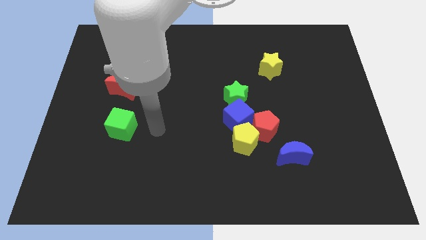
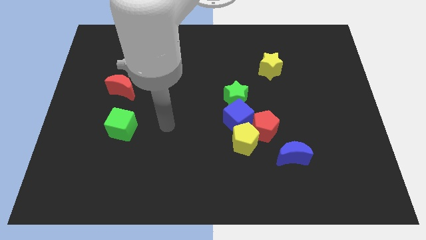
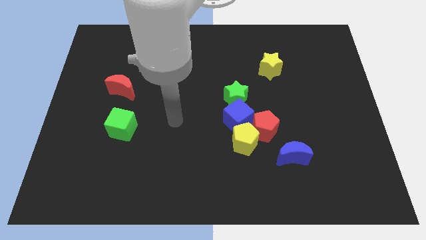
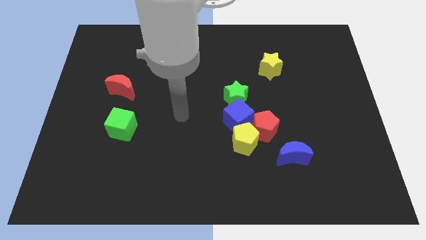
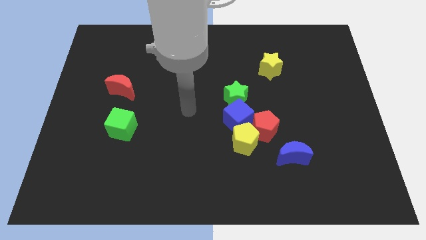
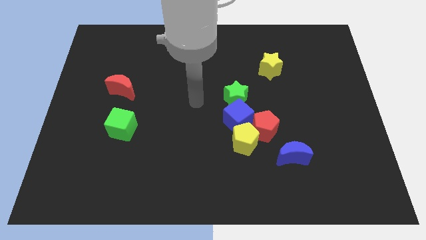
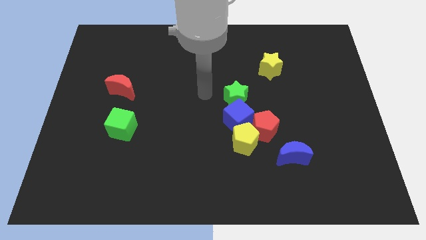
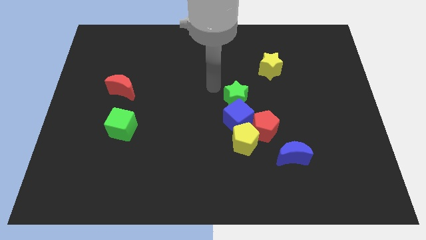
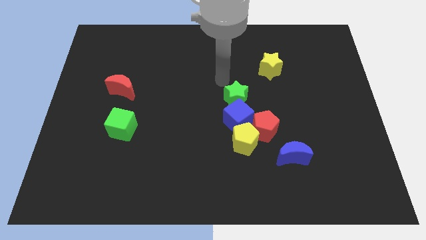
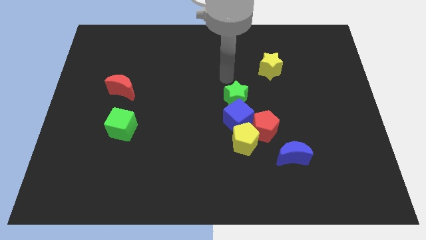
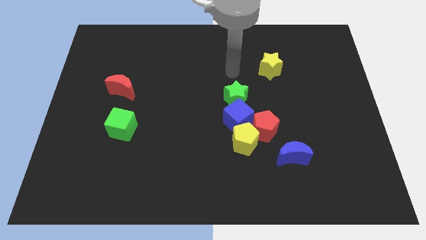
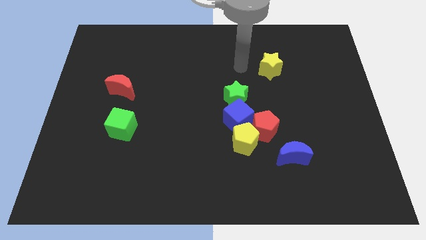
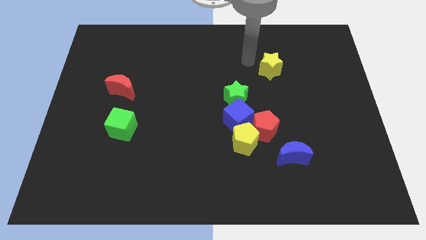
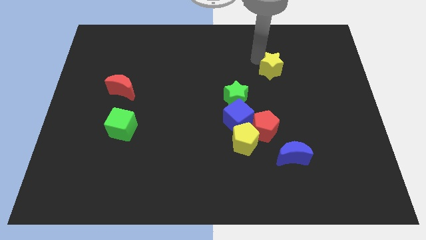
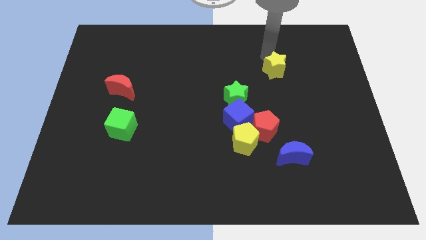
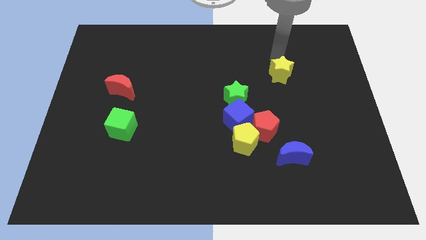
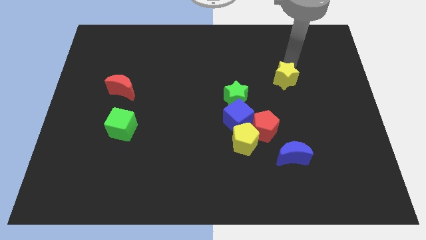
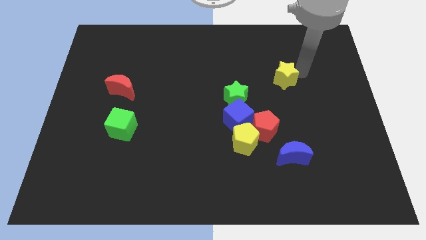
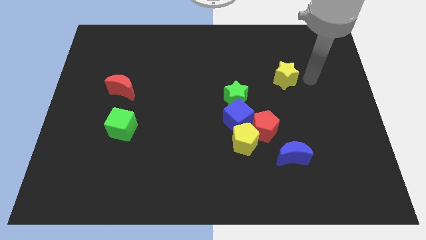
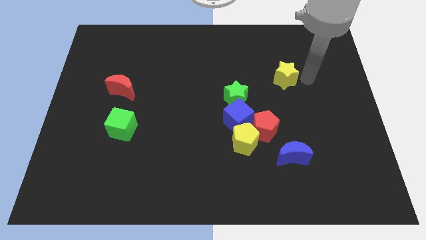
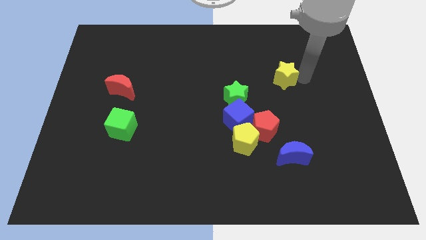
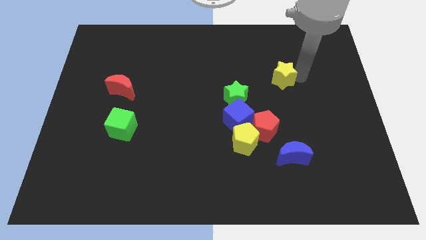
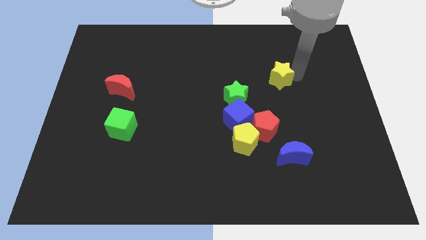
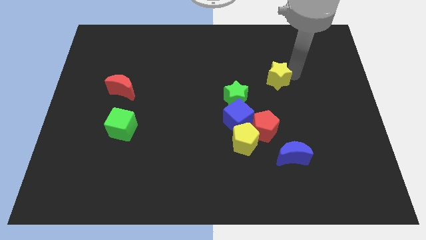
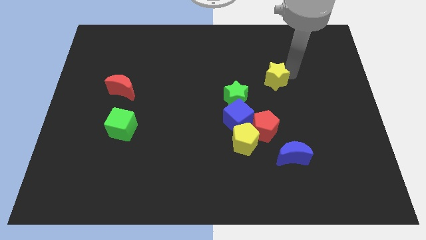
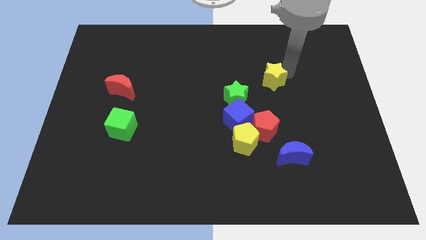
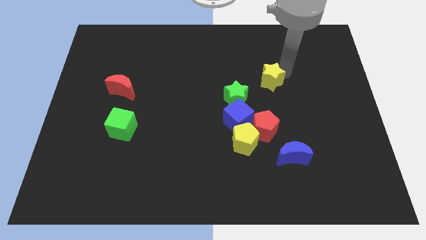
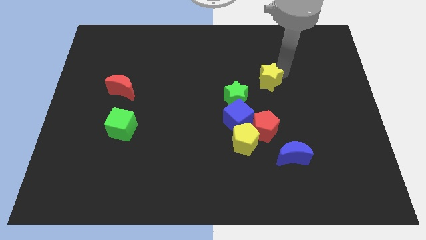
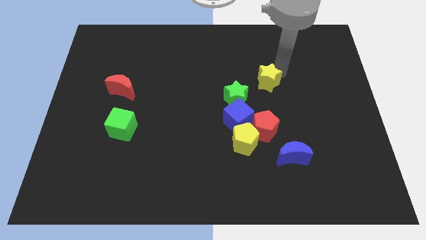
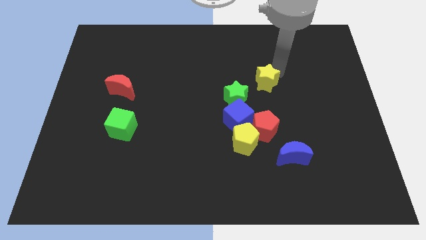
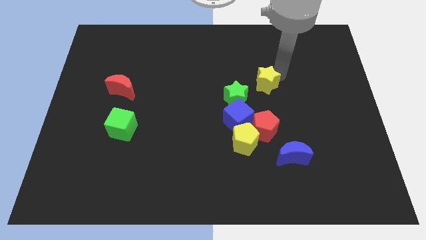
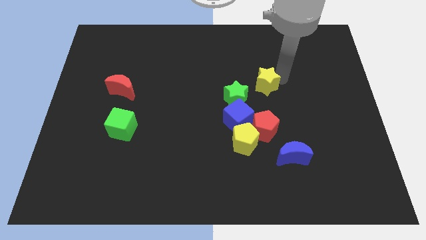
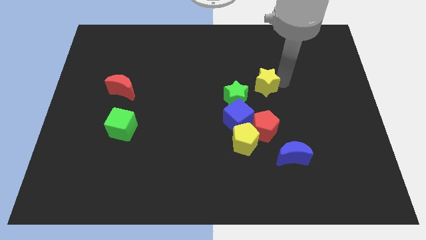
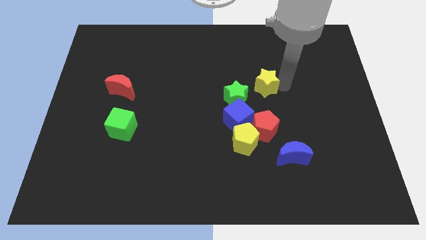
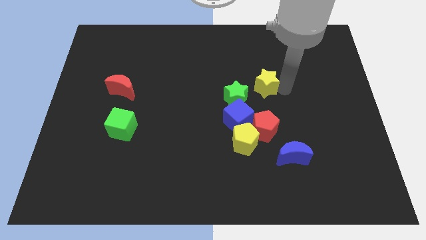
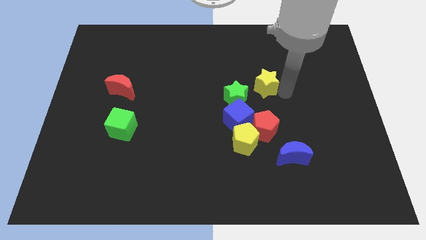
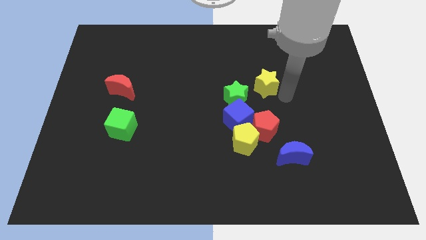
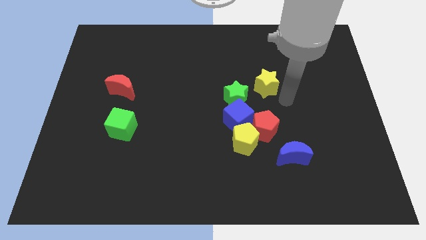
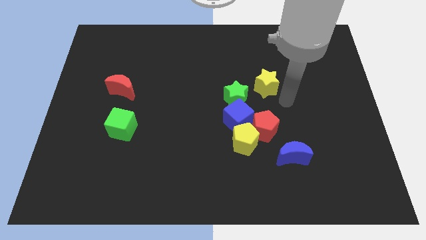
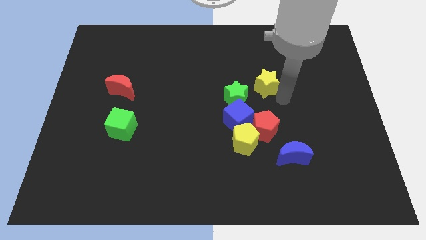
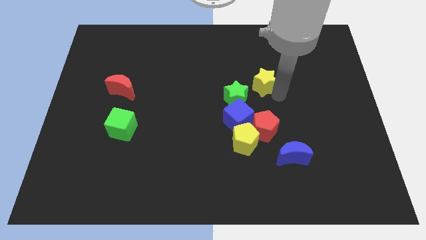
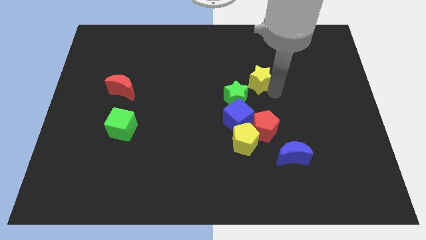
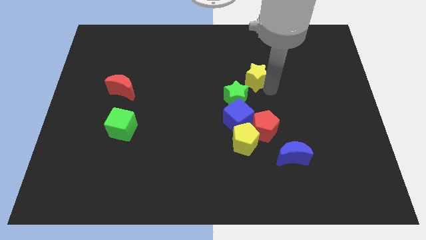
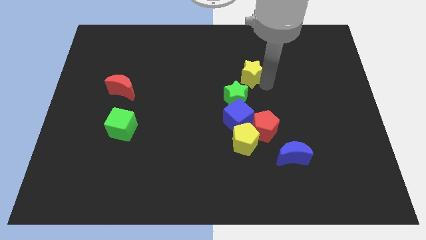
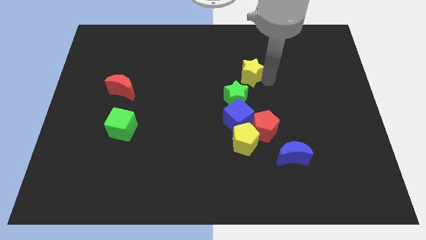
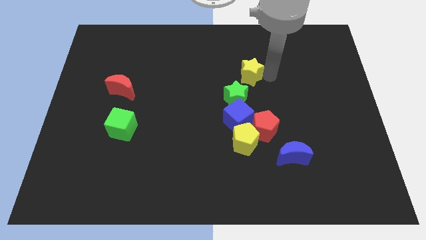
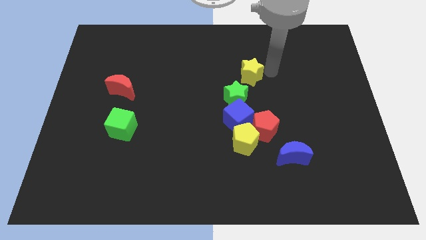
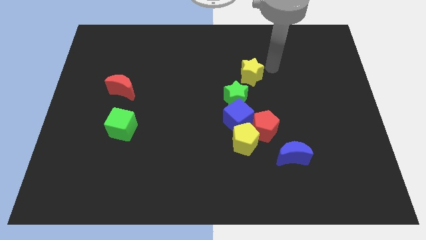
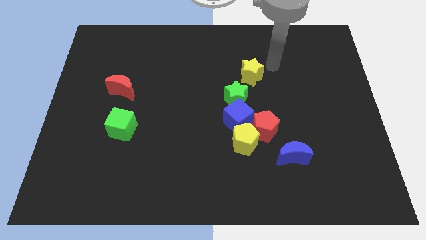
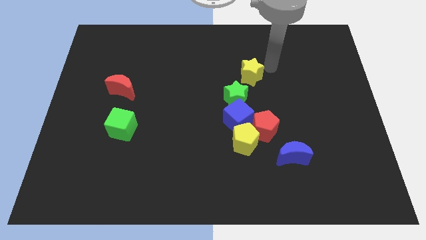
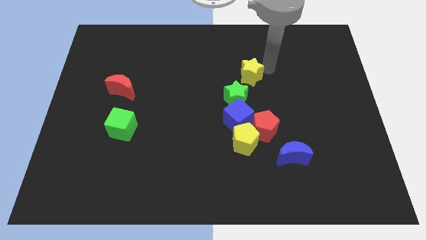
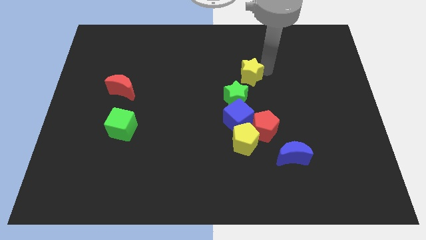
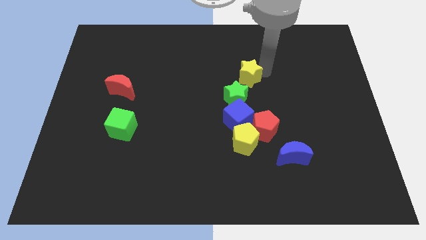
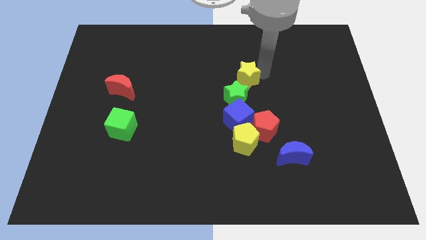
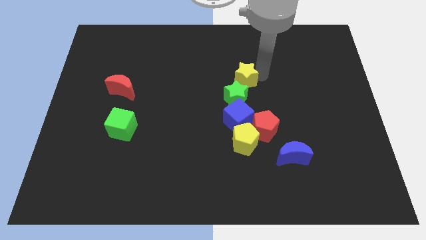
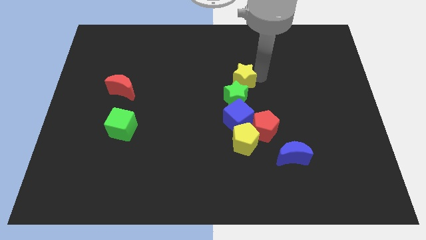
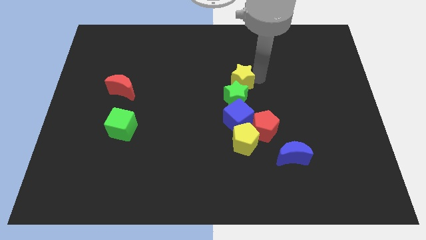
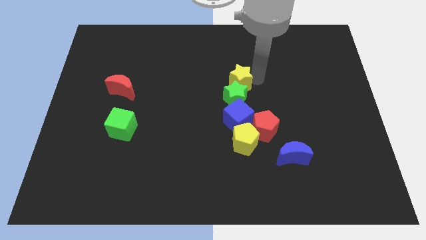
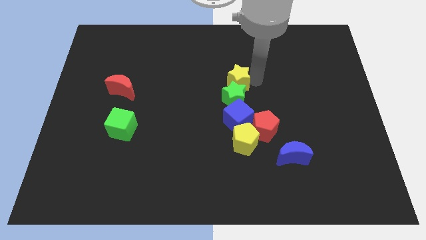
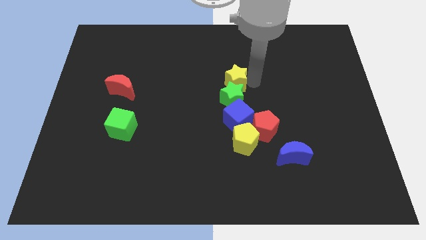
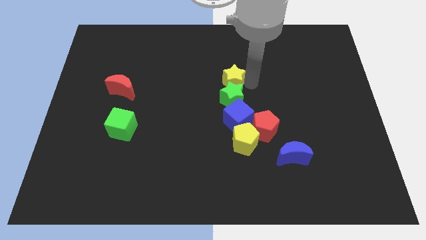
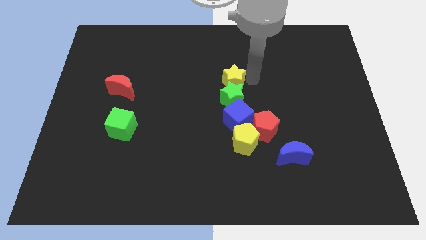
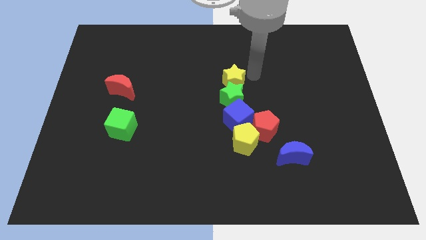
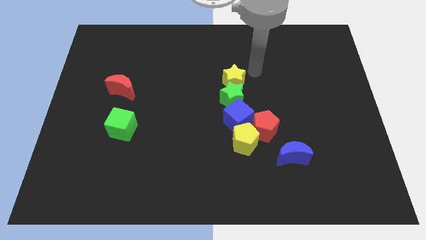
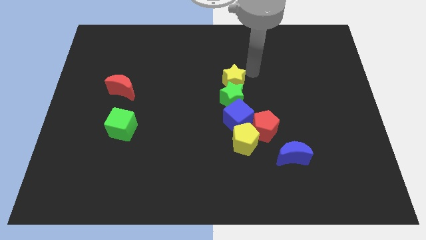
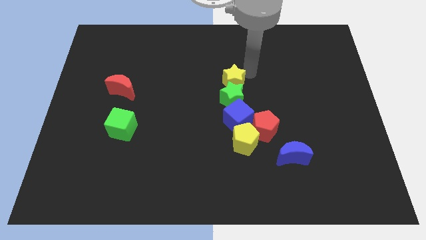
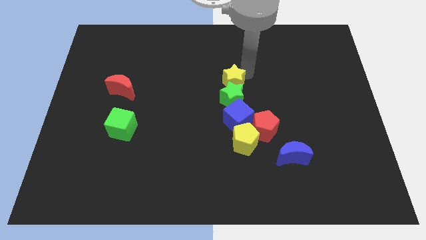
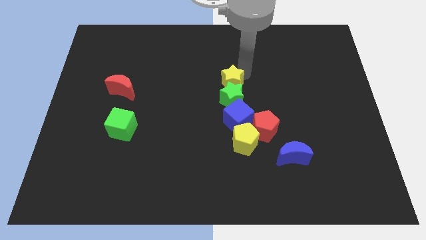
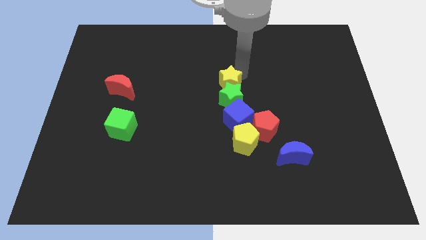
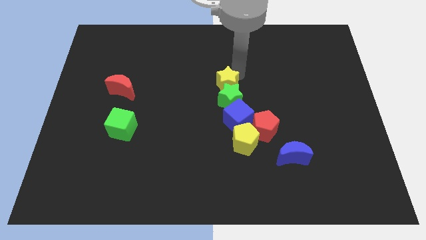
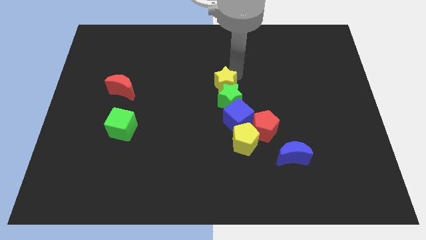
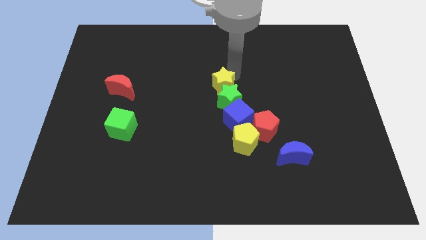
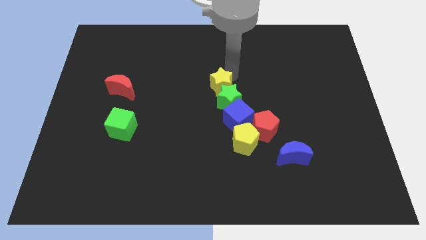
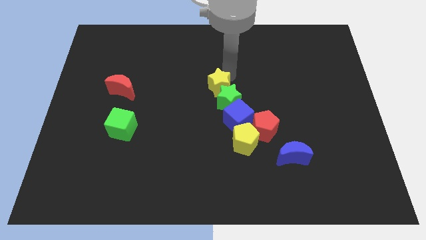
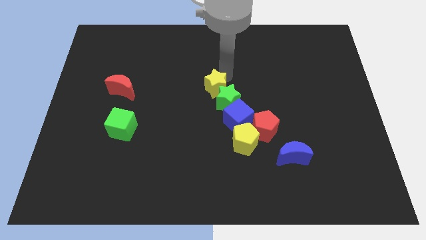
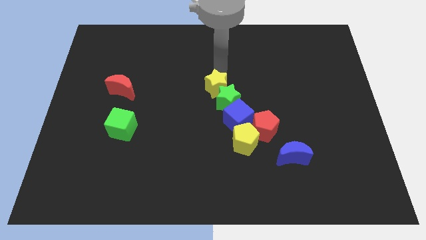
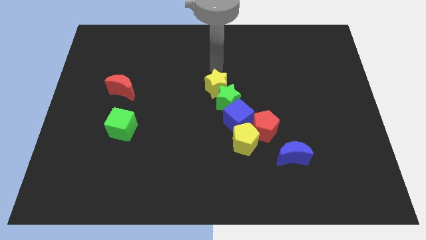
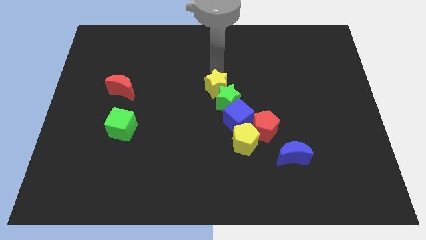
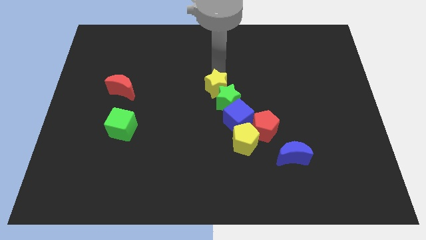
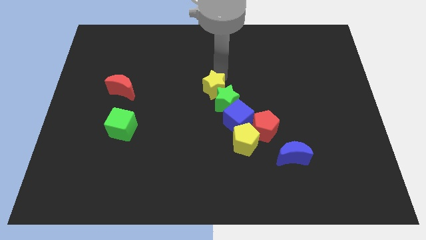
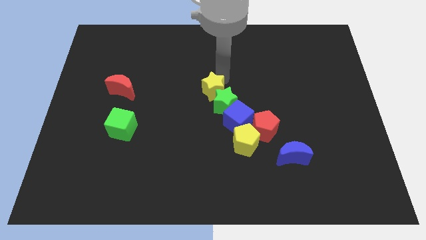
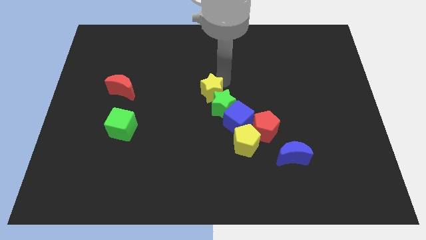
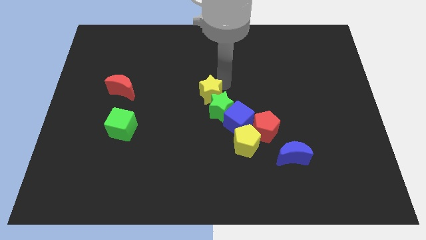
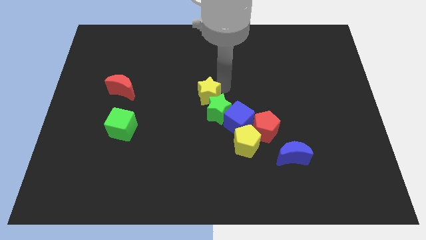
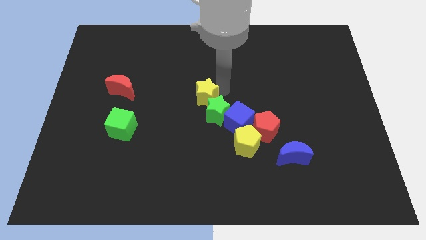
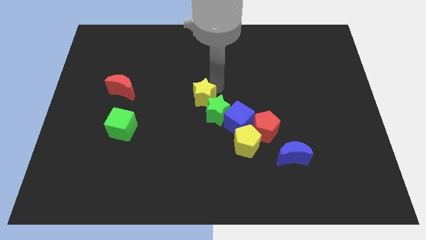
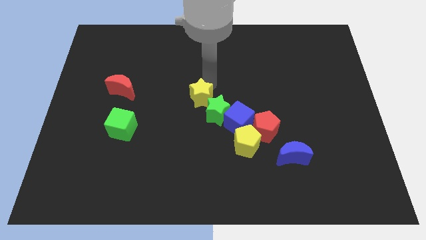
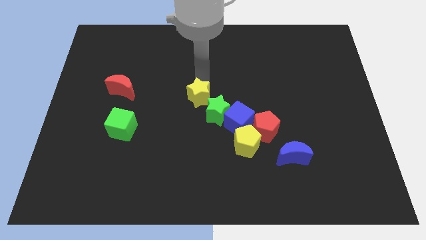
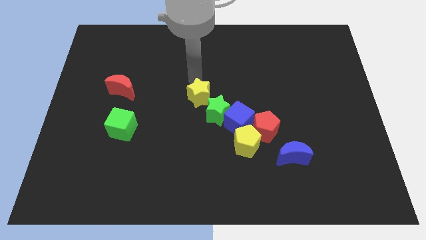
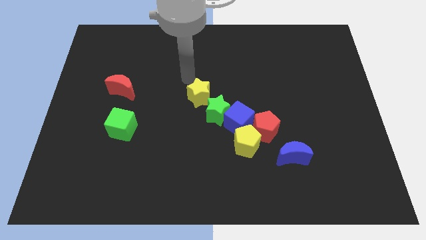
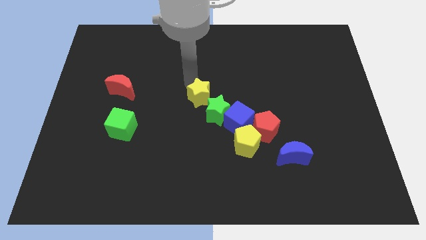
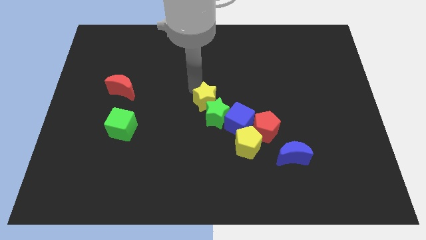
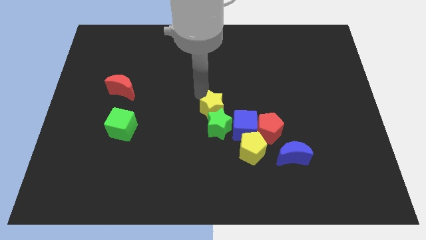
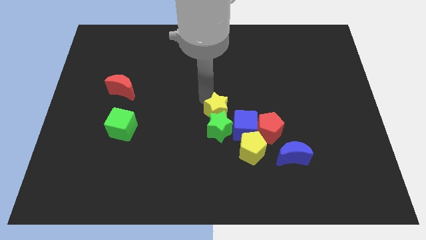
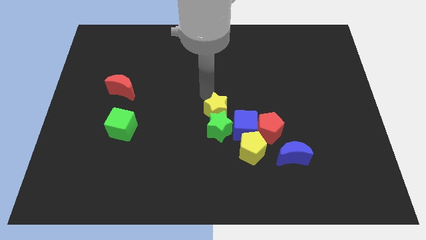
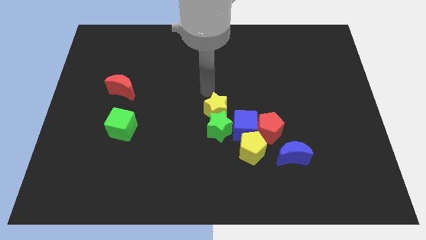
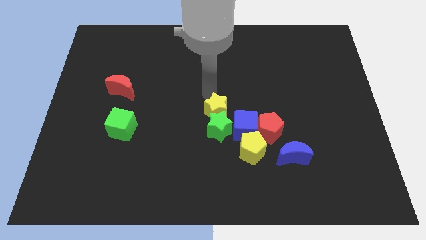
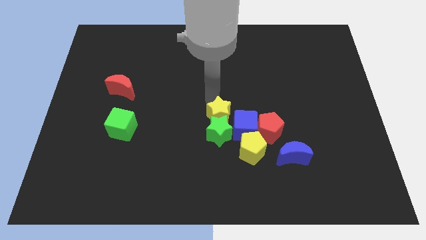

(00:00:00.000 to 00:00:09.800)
slide the yellow star to the top left side of the yellow pentagon
